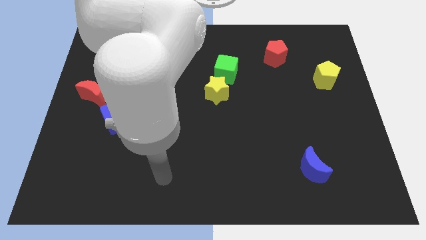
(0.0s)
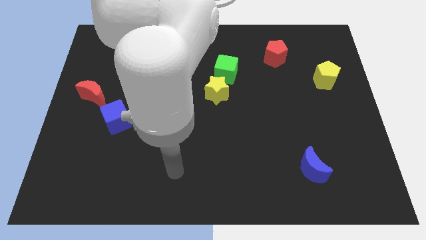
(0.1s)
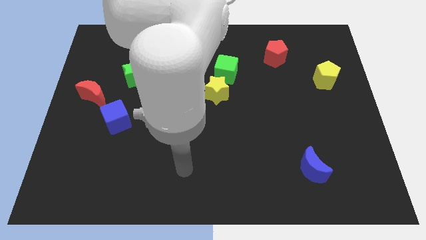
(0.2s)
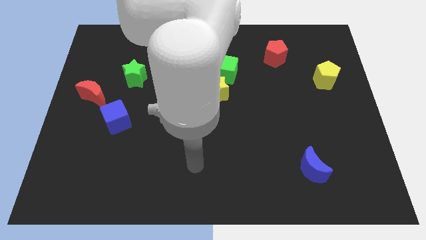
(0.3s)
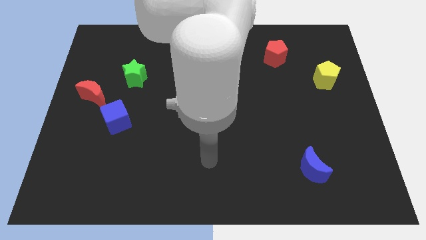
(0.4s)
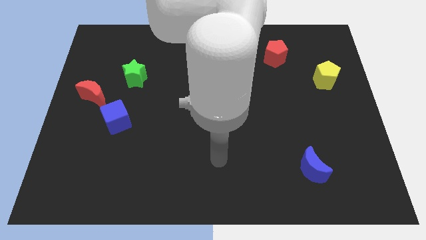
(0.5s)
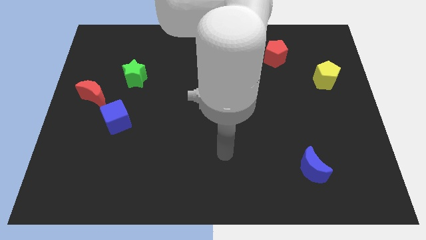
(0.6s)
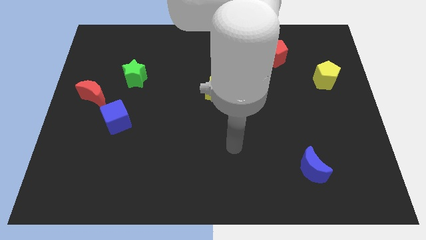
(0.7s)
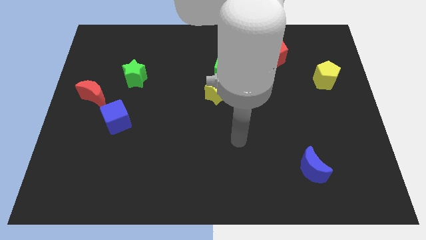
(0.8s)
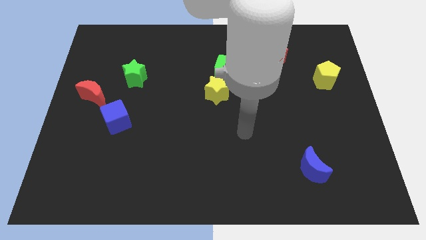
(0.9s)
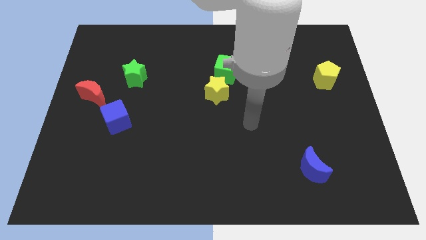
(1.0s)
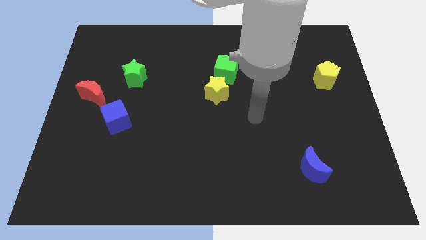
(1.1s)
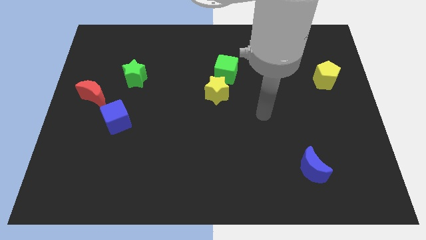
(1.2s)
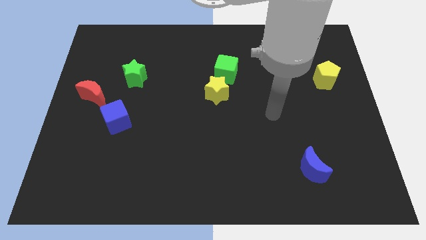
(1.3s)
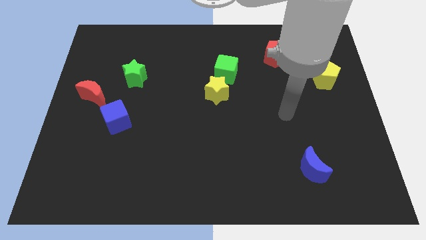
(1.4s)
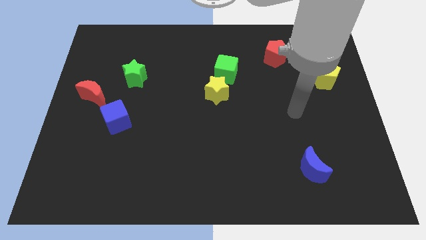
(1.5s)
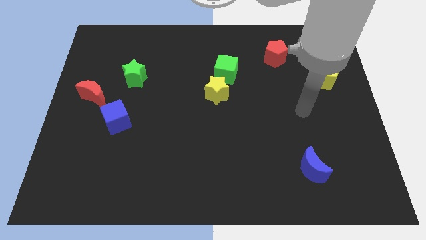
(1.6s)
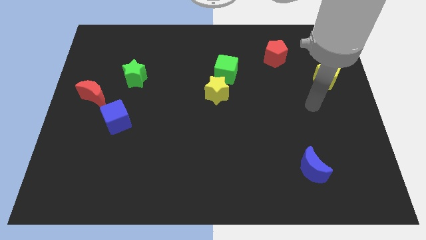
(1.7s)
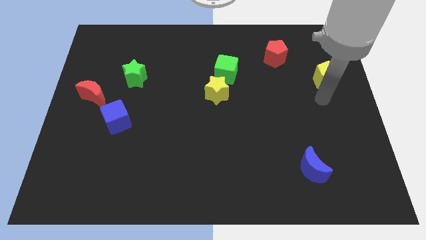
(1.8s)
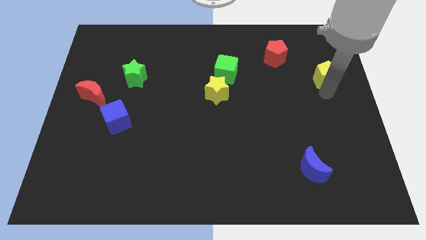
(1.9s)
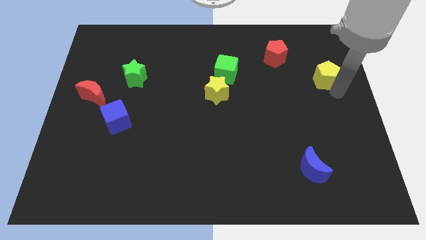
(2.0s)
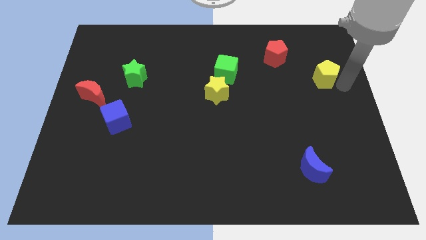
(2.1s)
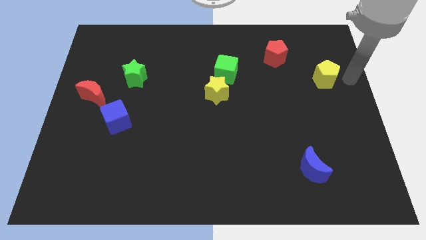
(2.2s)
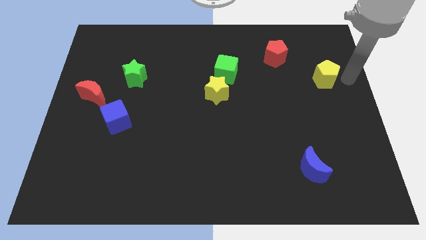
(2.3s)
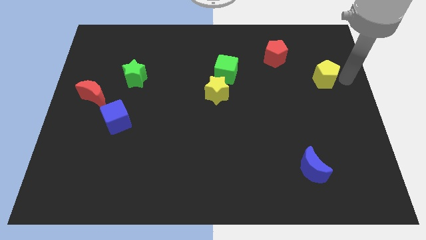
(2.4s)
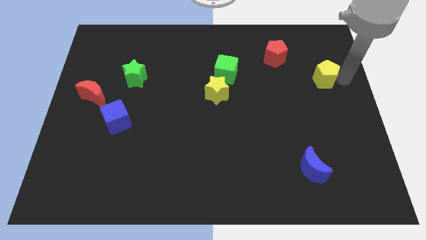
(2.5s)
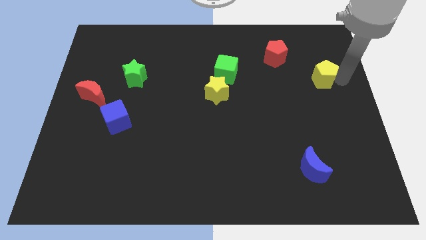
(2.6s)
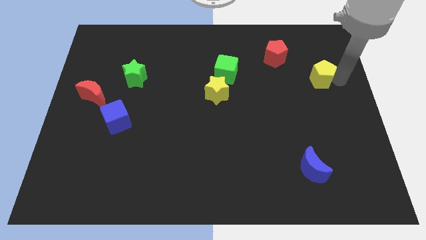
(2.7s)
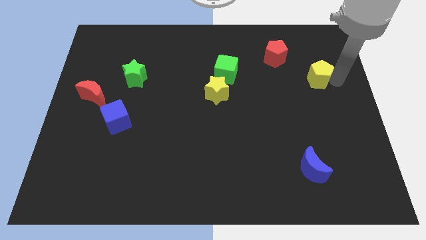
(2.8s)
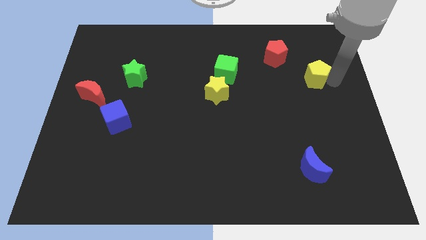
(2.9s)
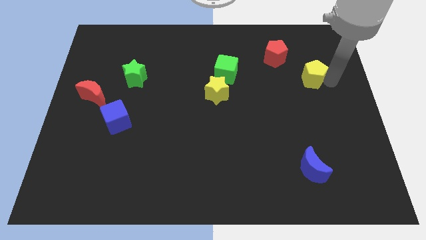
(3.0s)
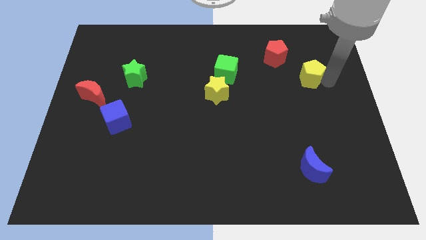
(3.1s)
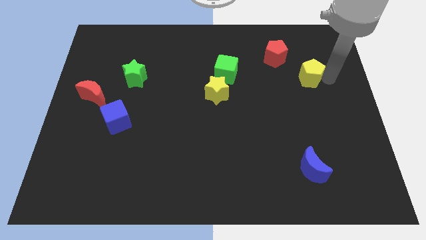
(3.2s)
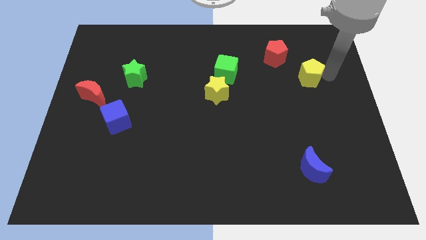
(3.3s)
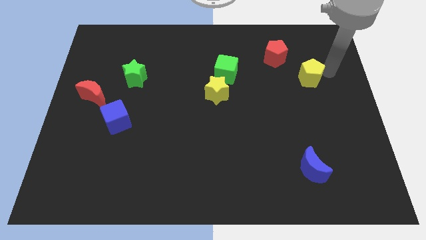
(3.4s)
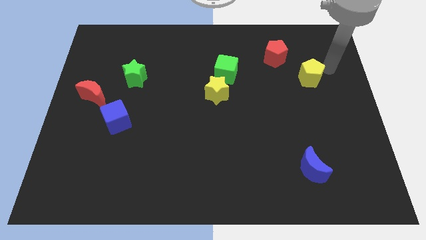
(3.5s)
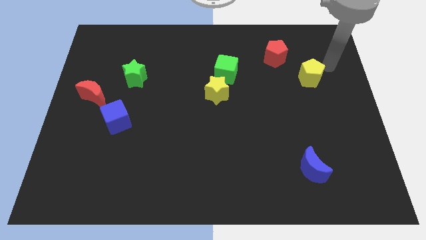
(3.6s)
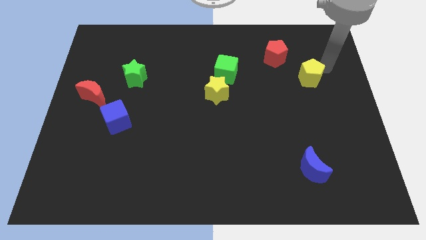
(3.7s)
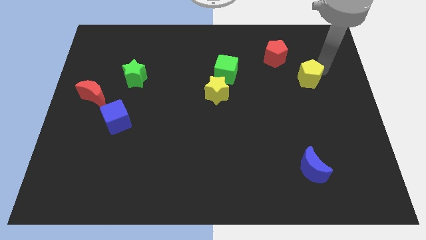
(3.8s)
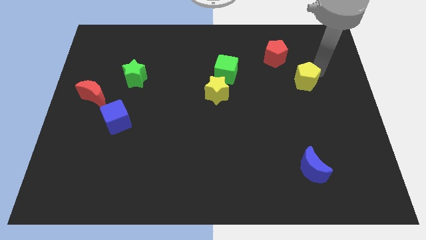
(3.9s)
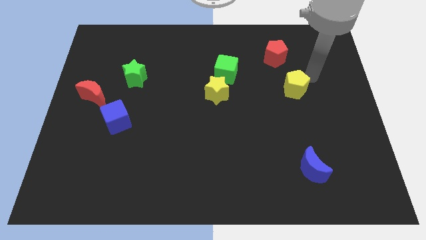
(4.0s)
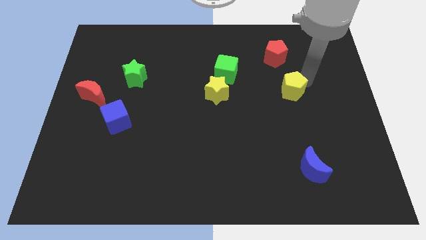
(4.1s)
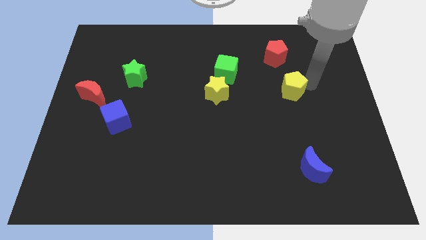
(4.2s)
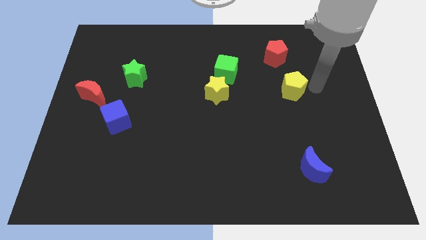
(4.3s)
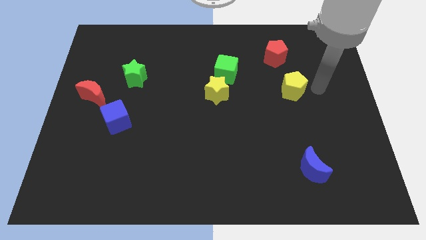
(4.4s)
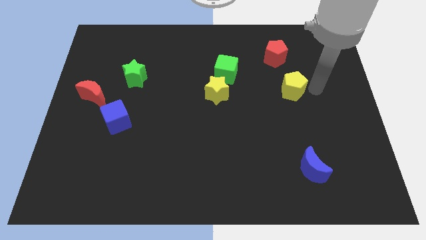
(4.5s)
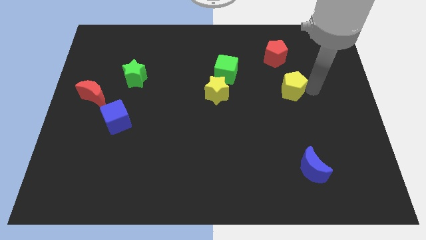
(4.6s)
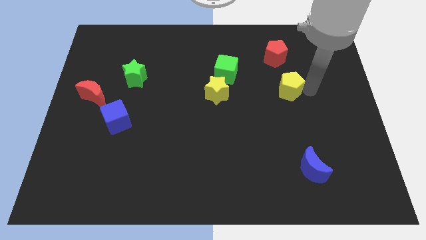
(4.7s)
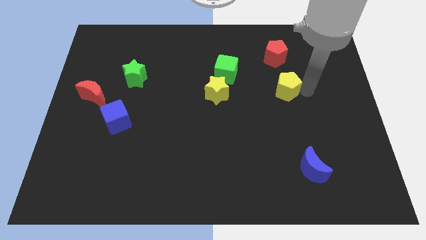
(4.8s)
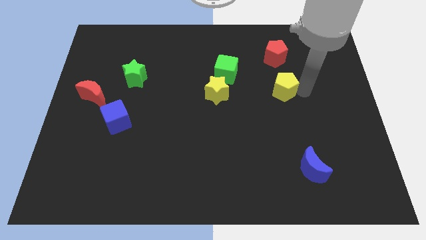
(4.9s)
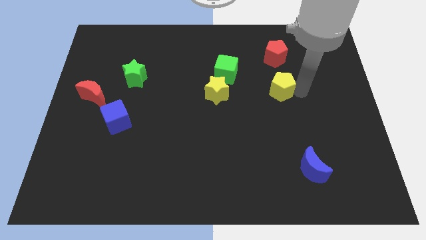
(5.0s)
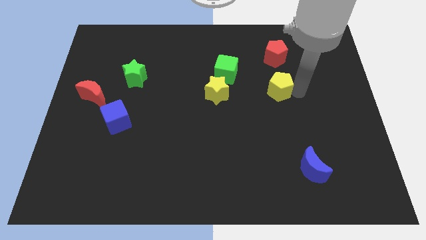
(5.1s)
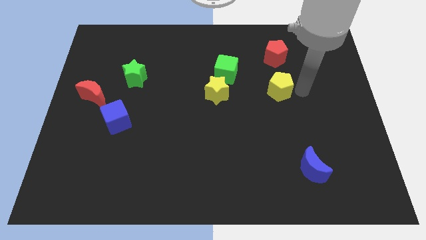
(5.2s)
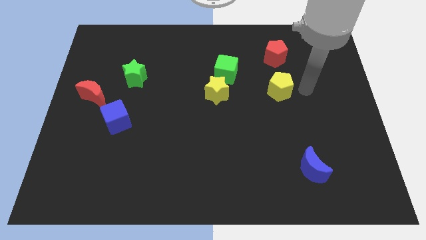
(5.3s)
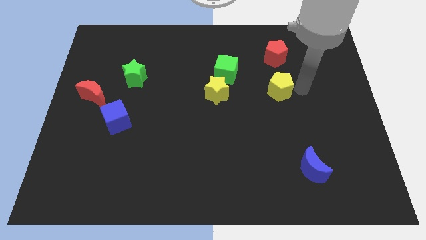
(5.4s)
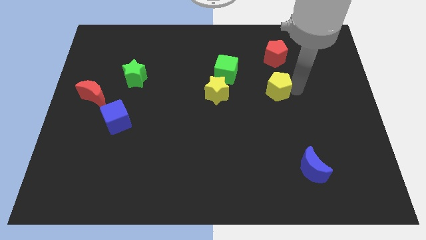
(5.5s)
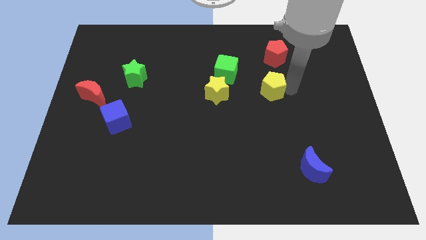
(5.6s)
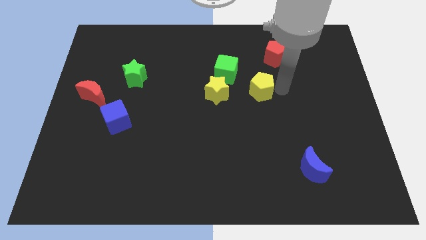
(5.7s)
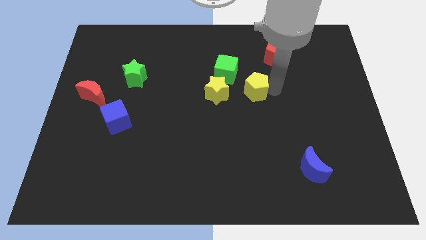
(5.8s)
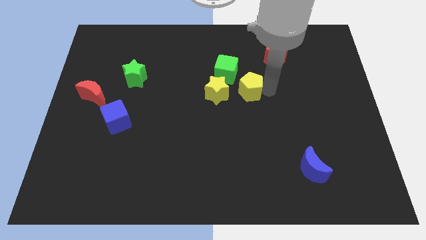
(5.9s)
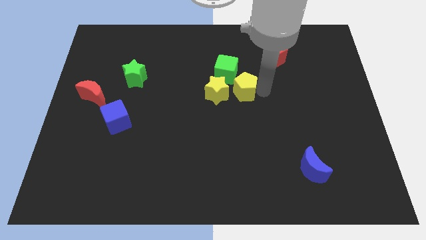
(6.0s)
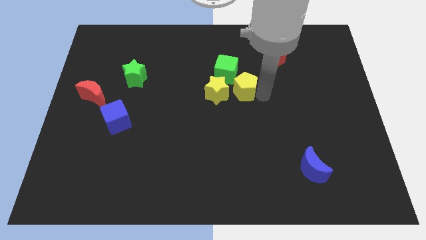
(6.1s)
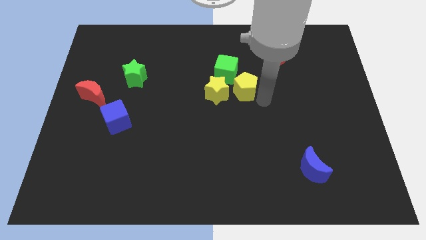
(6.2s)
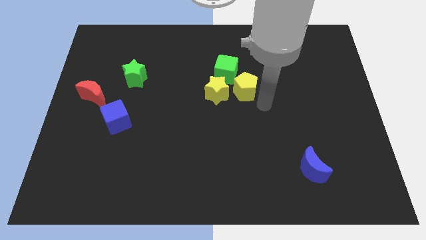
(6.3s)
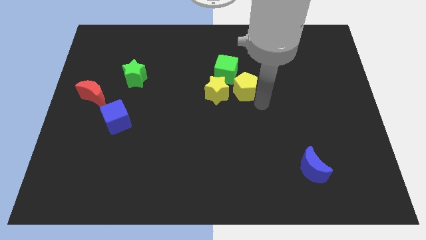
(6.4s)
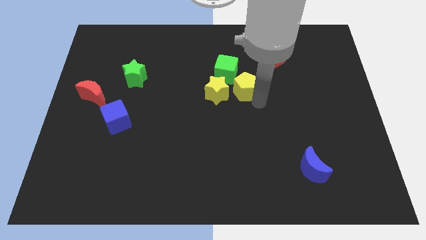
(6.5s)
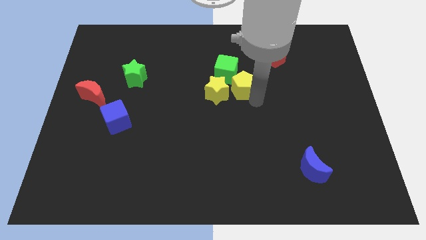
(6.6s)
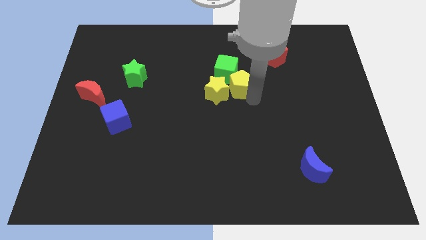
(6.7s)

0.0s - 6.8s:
slide the yellow pentagon to the green cube
